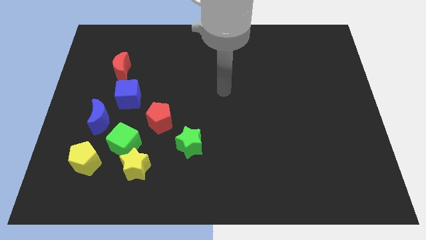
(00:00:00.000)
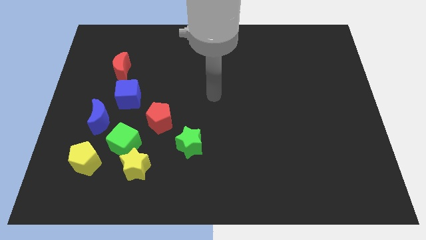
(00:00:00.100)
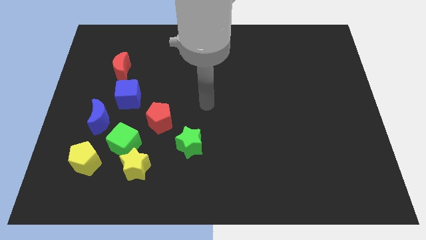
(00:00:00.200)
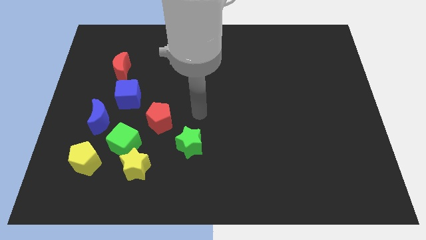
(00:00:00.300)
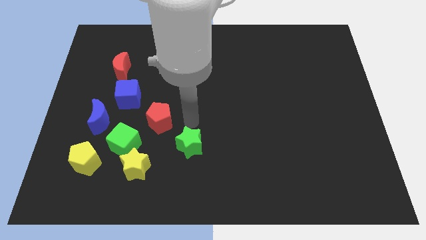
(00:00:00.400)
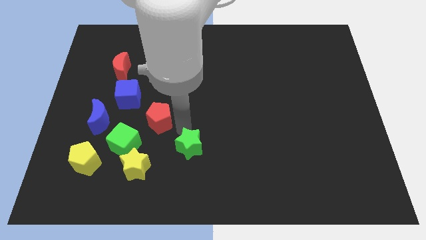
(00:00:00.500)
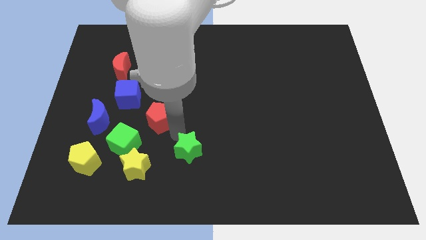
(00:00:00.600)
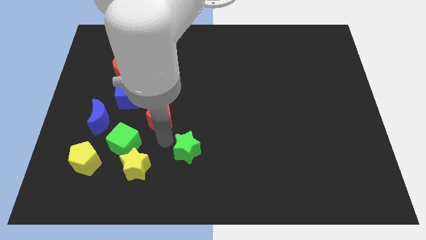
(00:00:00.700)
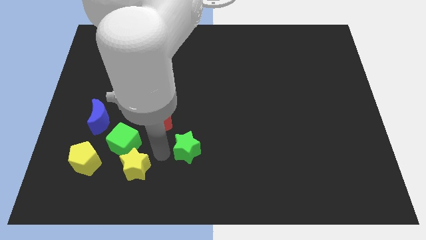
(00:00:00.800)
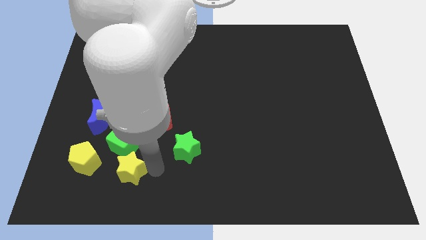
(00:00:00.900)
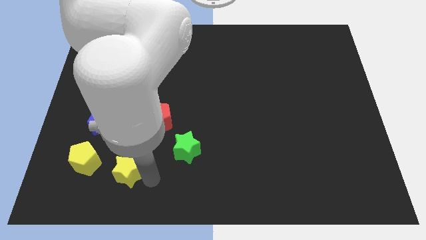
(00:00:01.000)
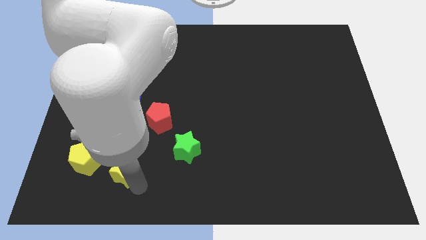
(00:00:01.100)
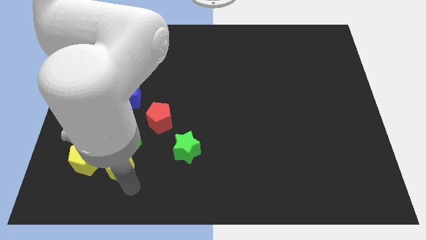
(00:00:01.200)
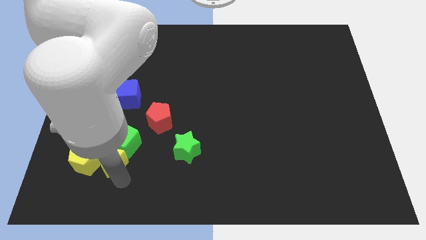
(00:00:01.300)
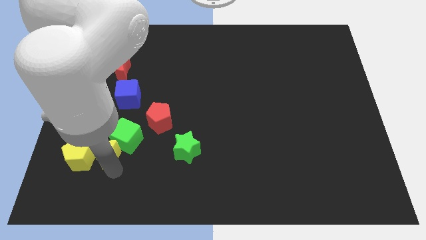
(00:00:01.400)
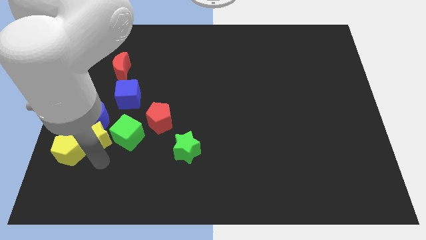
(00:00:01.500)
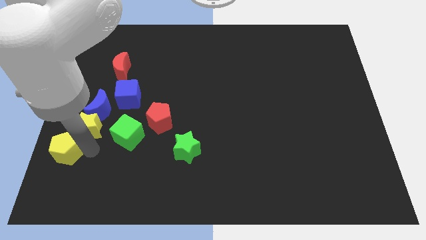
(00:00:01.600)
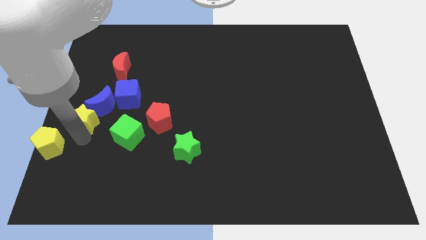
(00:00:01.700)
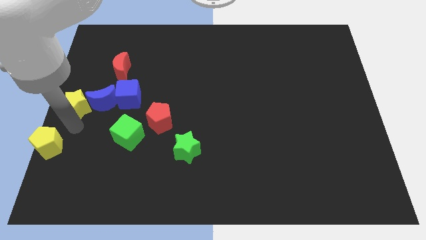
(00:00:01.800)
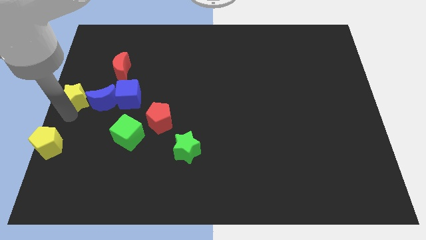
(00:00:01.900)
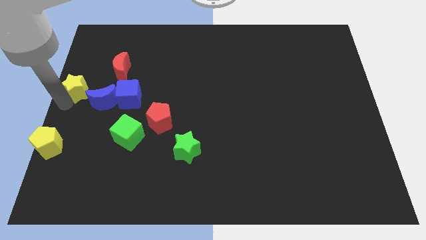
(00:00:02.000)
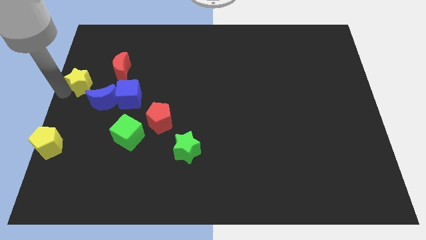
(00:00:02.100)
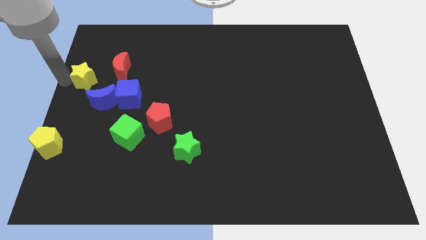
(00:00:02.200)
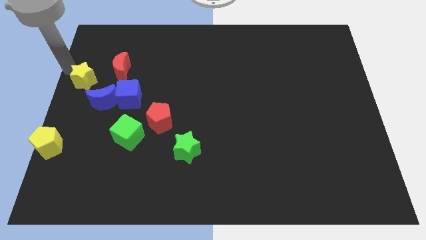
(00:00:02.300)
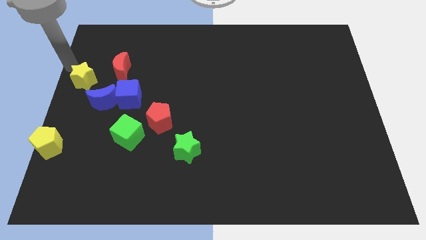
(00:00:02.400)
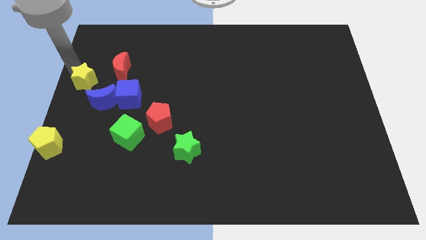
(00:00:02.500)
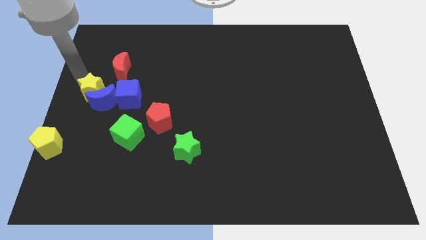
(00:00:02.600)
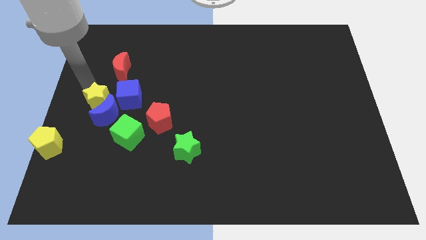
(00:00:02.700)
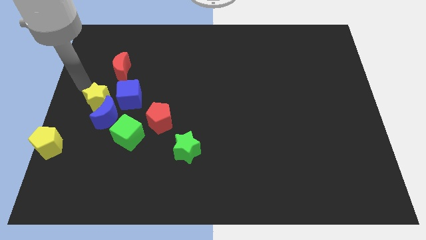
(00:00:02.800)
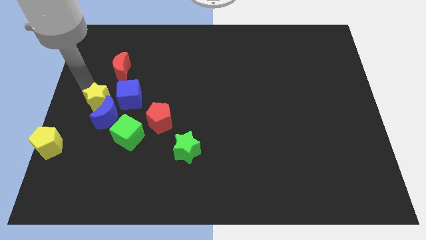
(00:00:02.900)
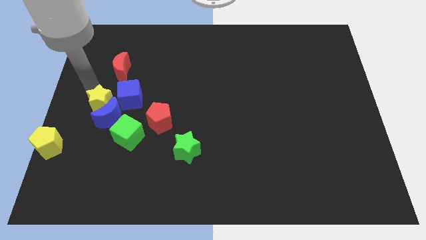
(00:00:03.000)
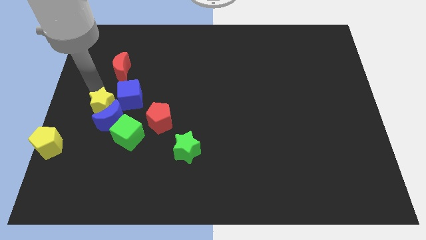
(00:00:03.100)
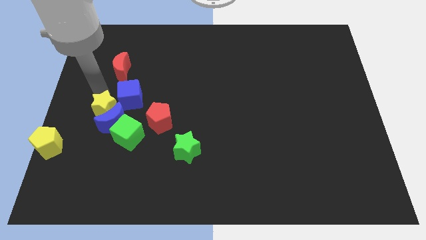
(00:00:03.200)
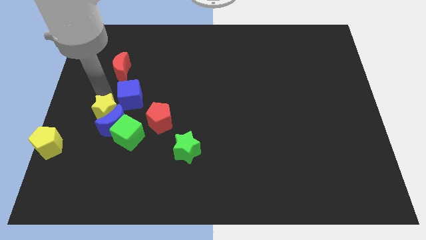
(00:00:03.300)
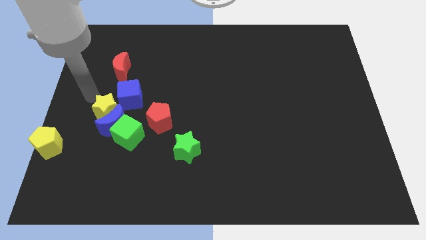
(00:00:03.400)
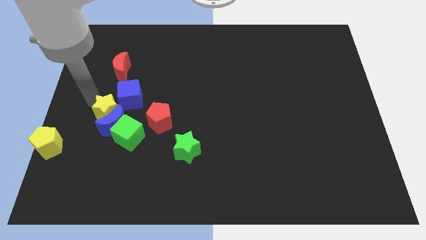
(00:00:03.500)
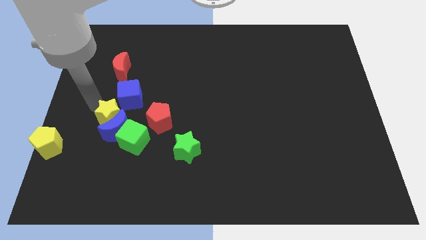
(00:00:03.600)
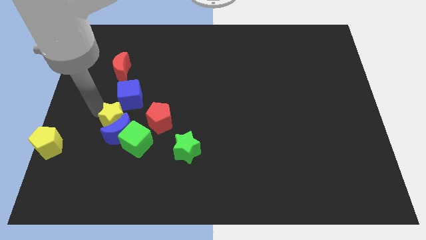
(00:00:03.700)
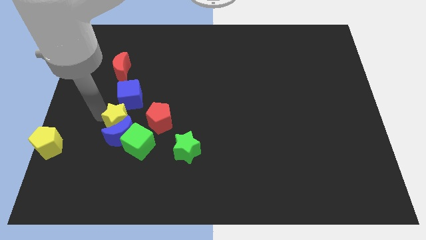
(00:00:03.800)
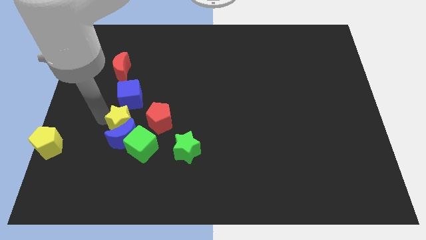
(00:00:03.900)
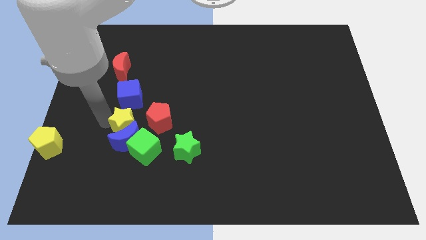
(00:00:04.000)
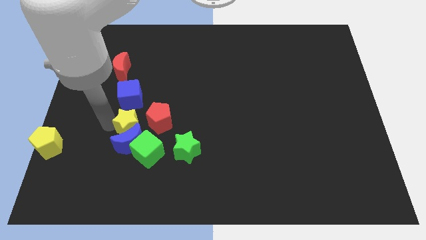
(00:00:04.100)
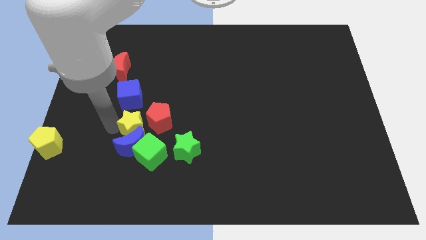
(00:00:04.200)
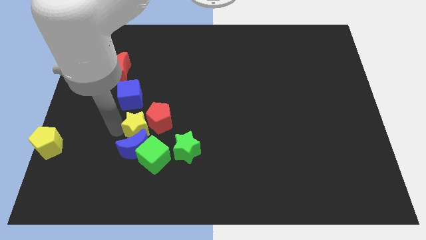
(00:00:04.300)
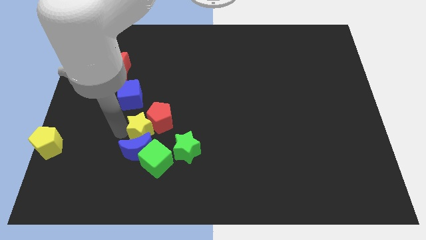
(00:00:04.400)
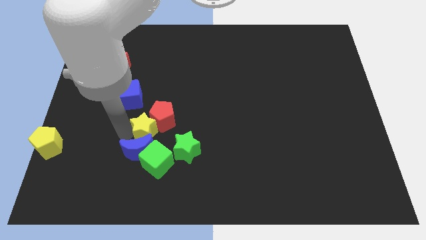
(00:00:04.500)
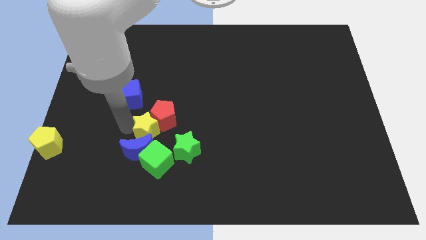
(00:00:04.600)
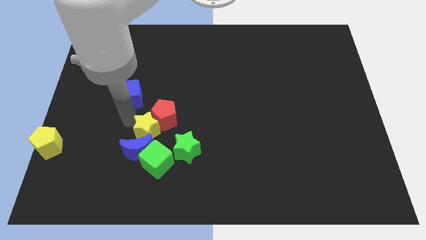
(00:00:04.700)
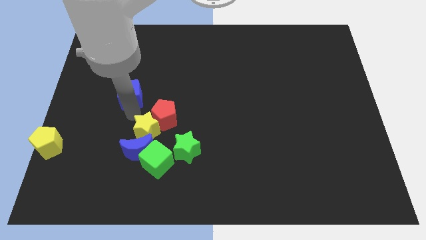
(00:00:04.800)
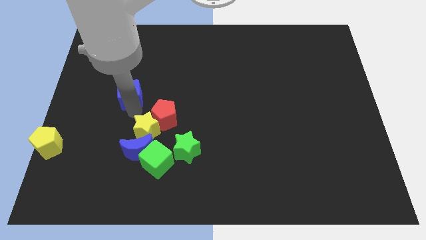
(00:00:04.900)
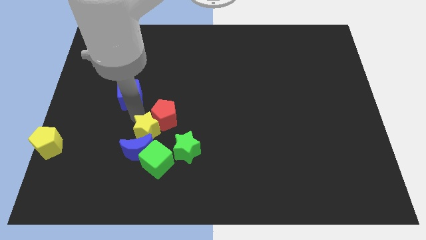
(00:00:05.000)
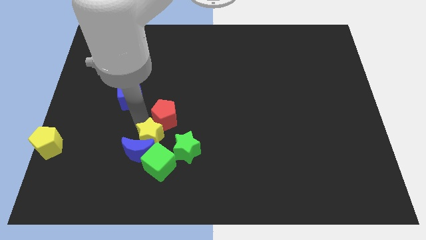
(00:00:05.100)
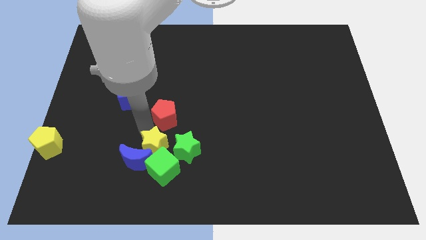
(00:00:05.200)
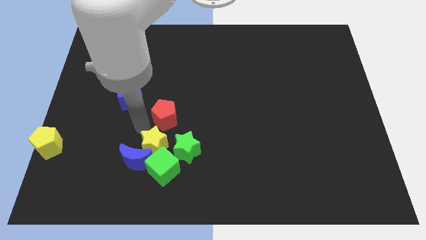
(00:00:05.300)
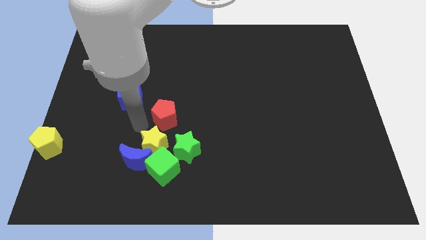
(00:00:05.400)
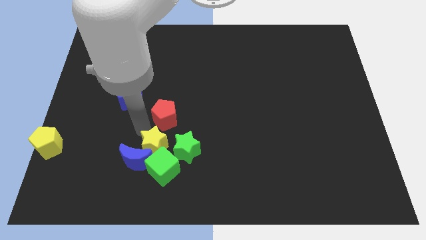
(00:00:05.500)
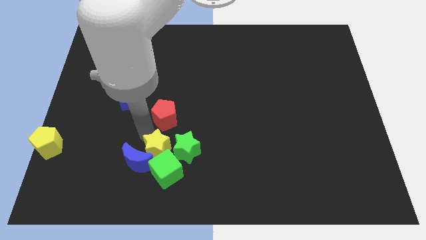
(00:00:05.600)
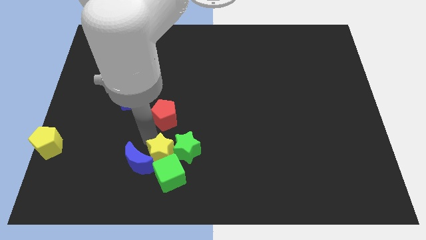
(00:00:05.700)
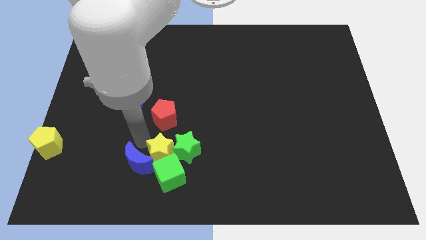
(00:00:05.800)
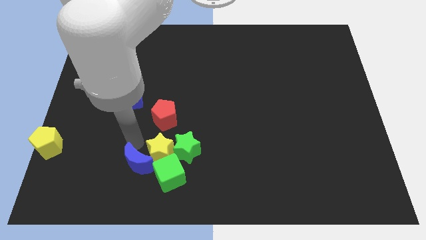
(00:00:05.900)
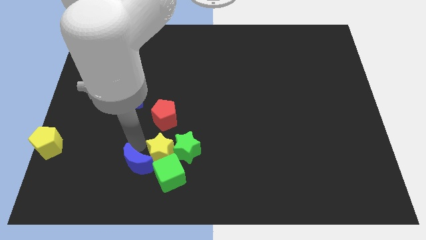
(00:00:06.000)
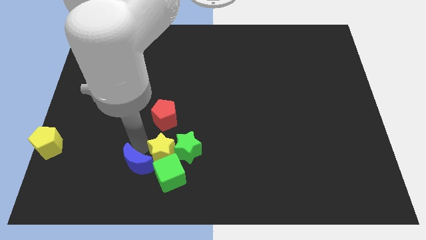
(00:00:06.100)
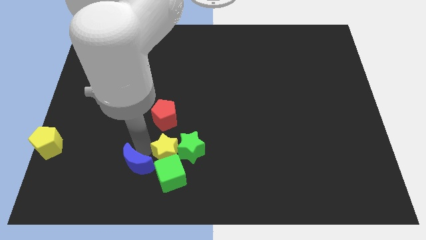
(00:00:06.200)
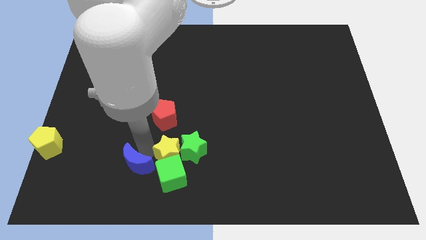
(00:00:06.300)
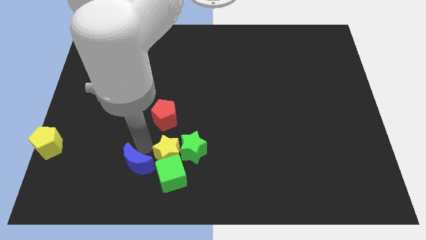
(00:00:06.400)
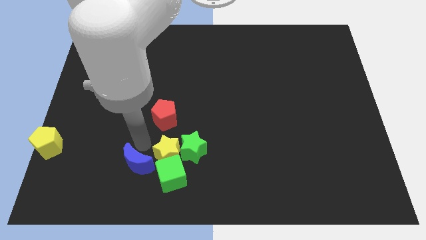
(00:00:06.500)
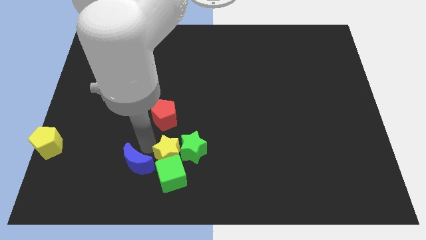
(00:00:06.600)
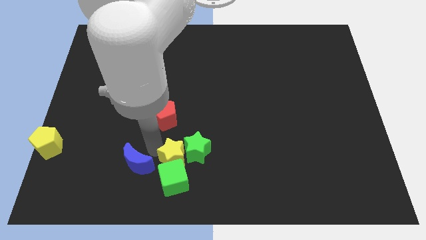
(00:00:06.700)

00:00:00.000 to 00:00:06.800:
slide the yellow star to the right slightly

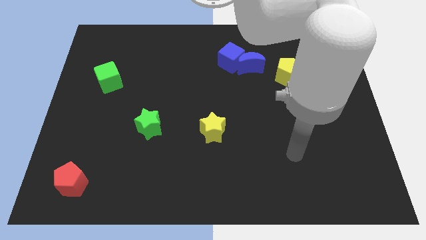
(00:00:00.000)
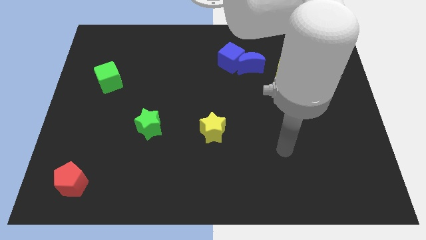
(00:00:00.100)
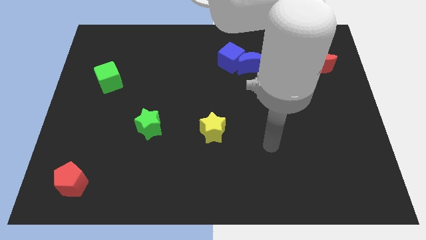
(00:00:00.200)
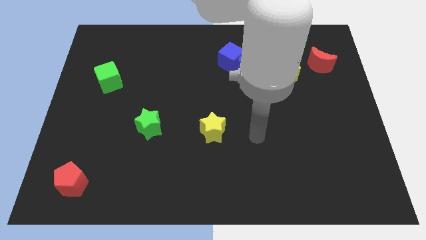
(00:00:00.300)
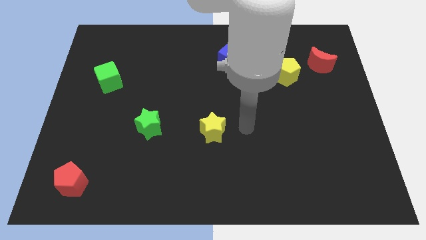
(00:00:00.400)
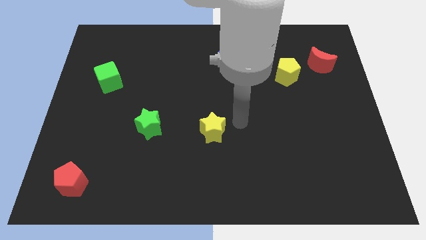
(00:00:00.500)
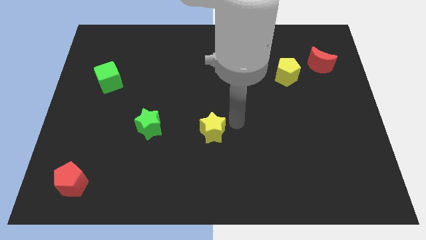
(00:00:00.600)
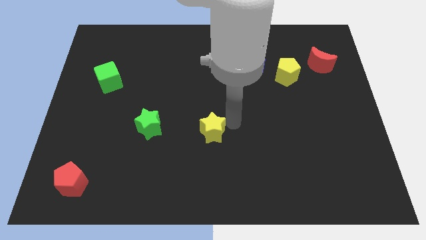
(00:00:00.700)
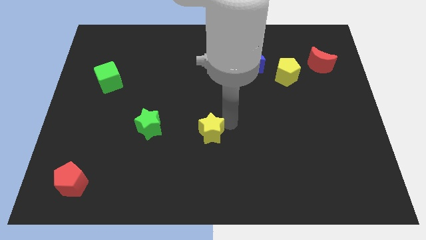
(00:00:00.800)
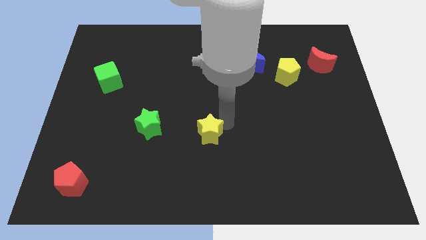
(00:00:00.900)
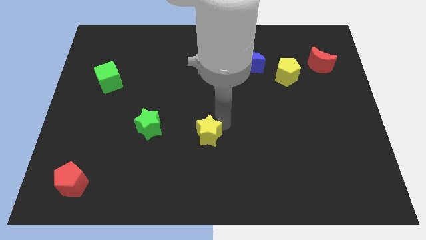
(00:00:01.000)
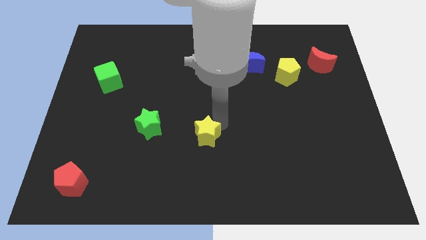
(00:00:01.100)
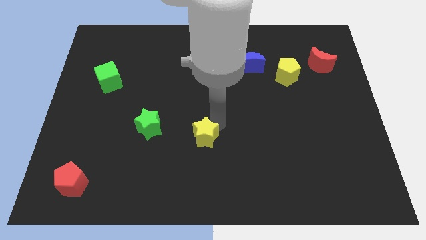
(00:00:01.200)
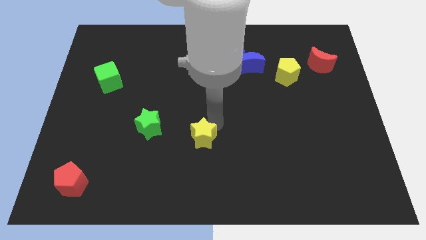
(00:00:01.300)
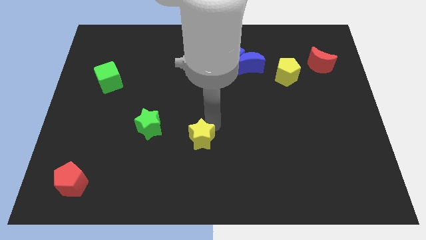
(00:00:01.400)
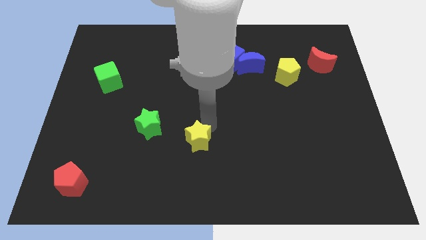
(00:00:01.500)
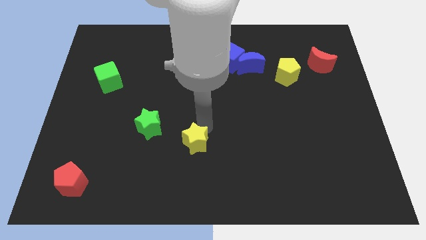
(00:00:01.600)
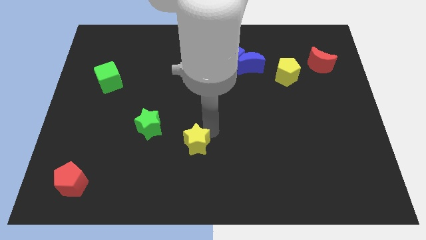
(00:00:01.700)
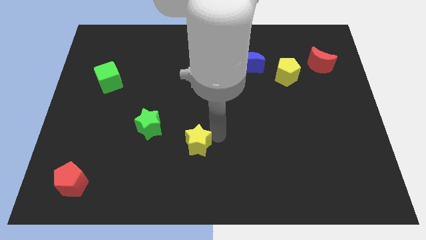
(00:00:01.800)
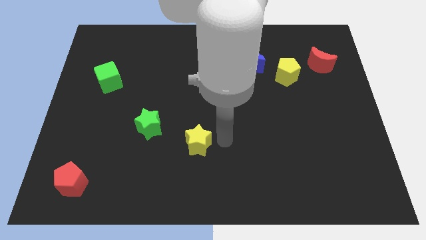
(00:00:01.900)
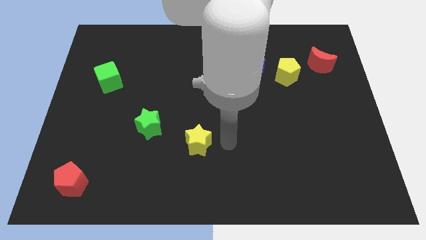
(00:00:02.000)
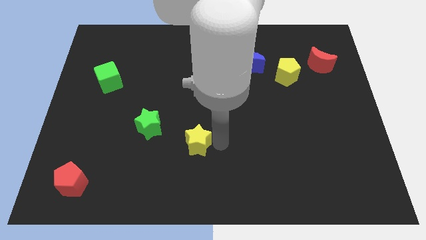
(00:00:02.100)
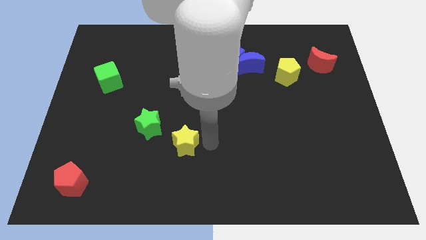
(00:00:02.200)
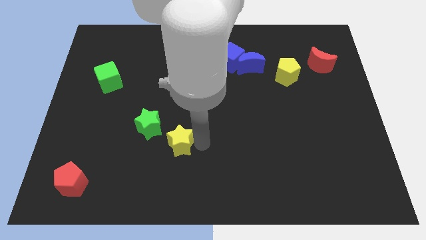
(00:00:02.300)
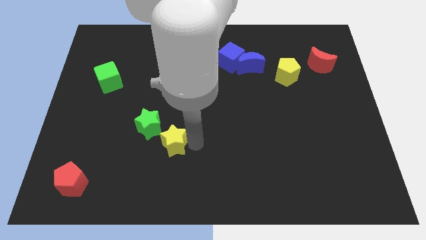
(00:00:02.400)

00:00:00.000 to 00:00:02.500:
move the yellow star somewhat left
